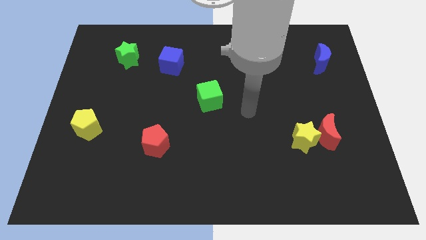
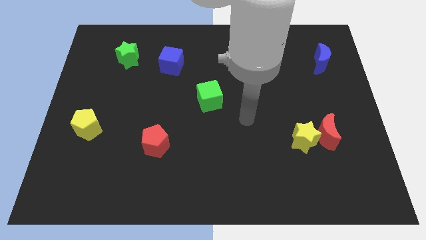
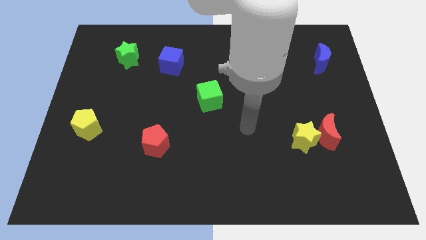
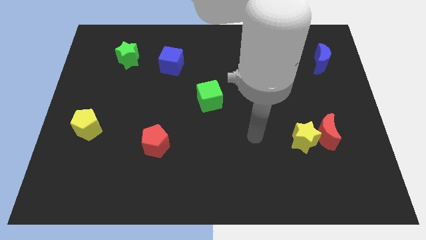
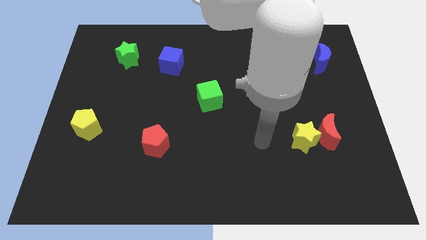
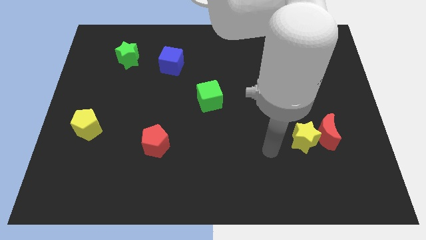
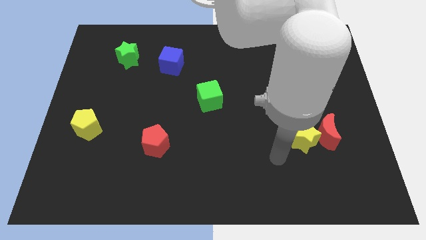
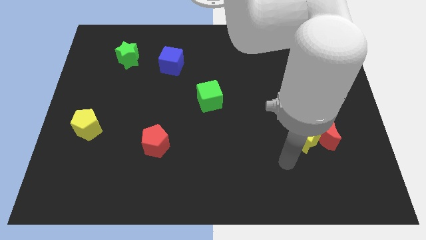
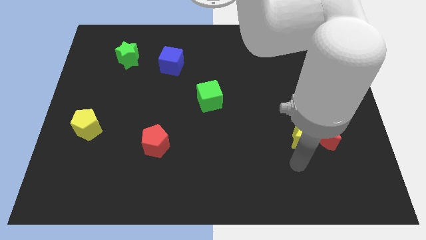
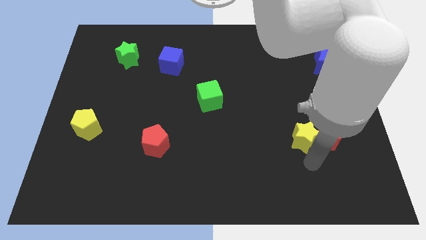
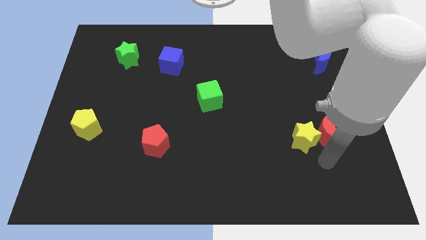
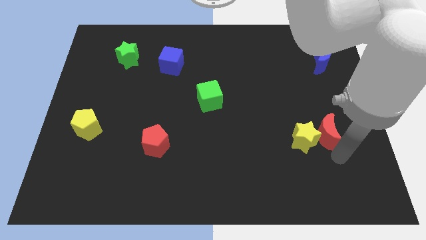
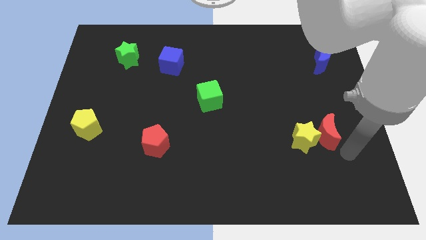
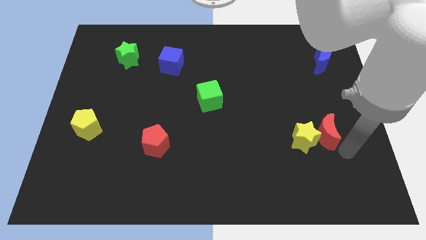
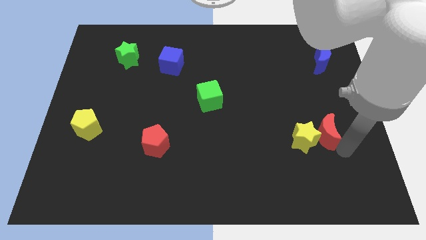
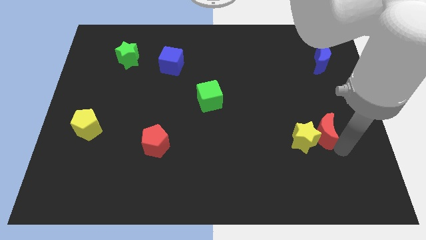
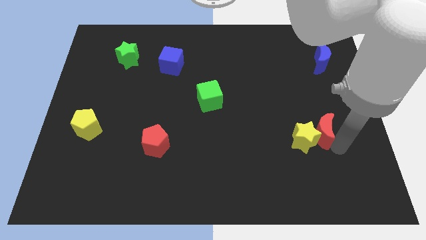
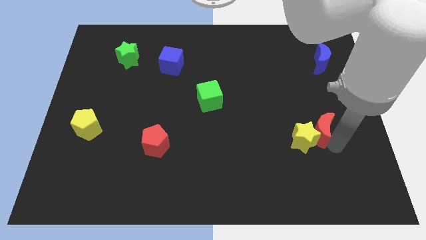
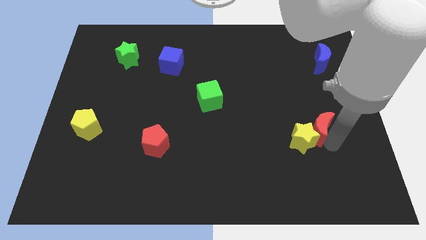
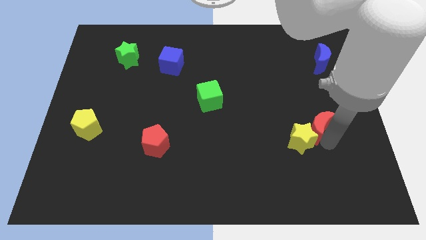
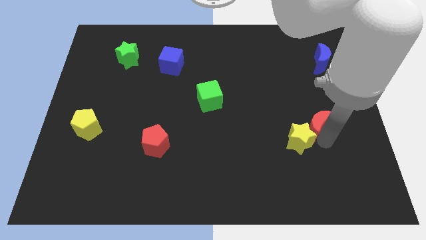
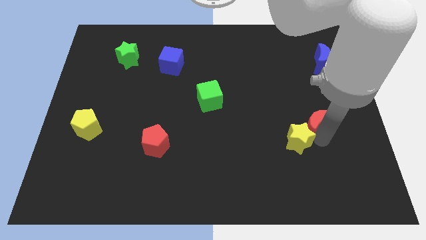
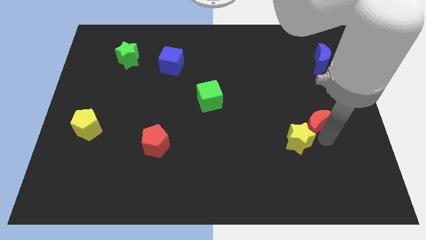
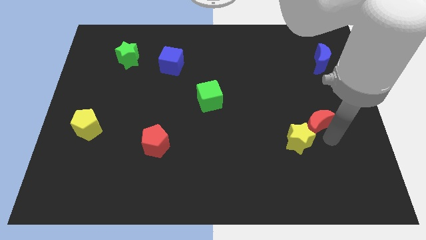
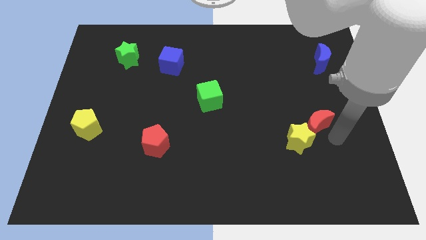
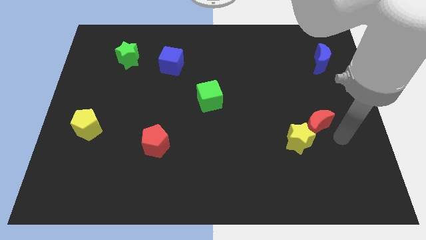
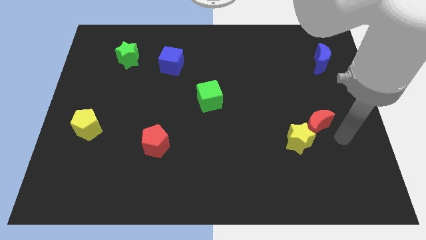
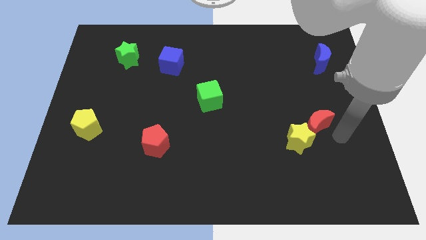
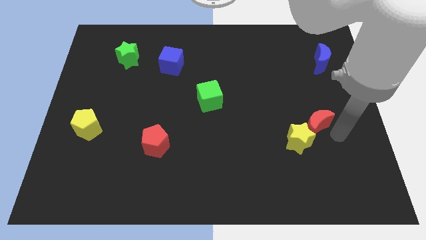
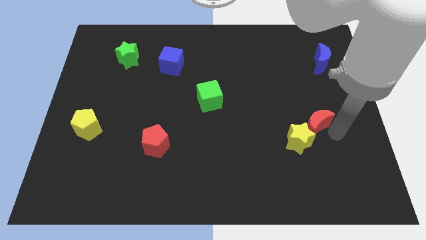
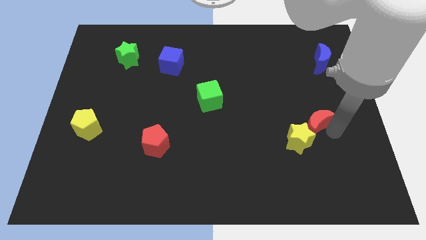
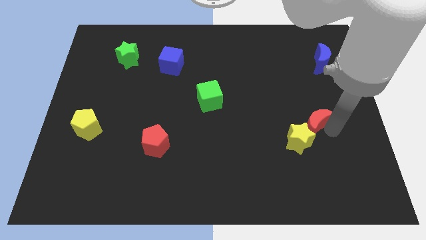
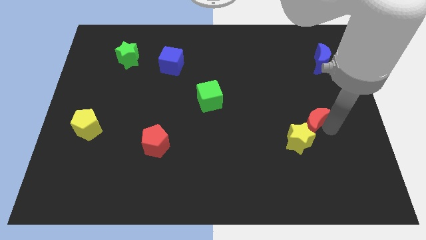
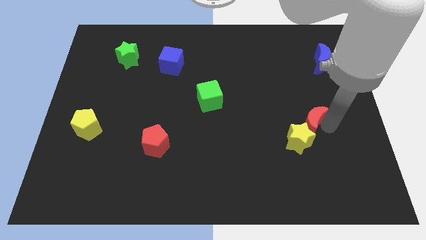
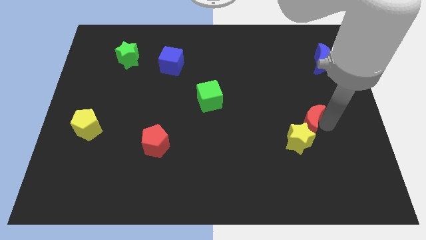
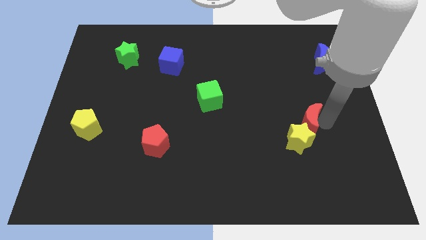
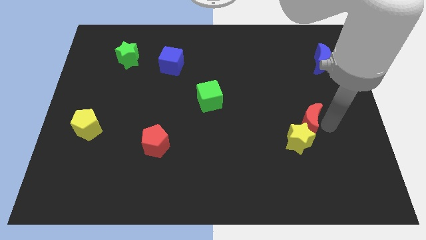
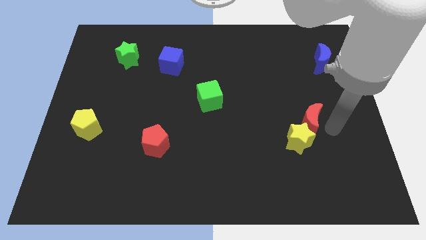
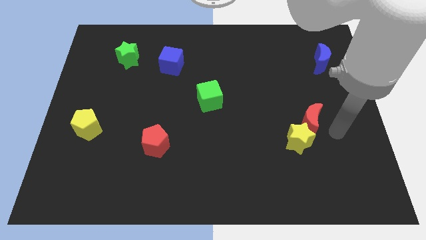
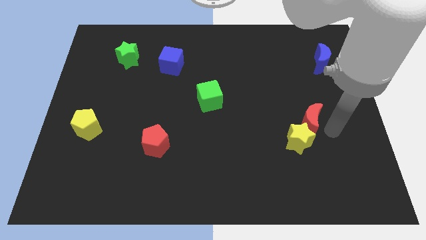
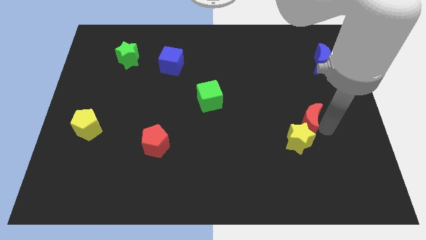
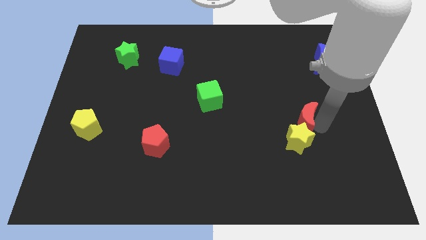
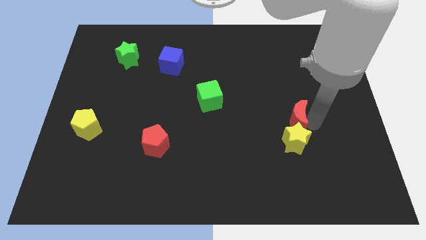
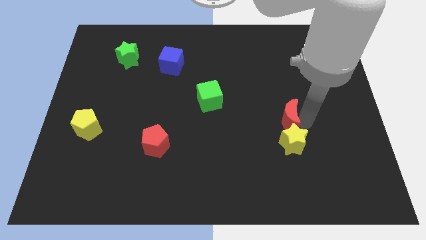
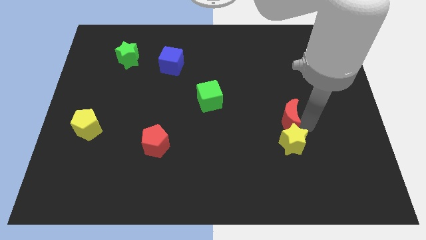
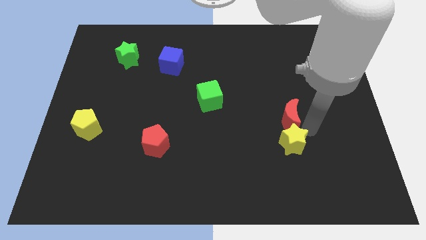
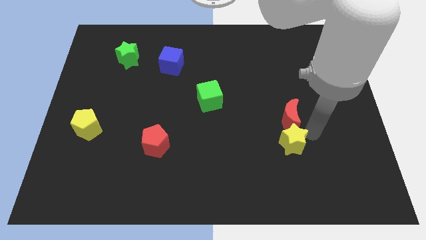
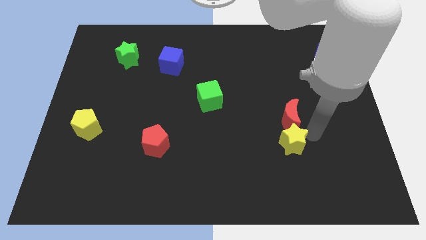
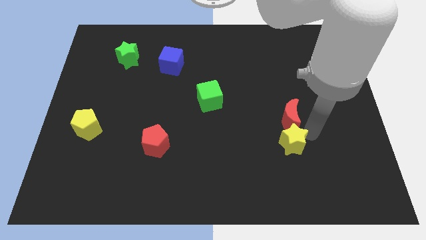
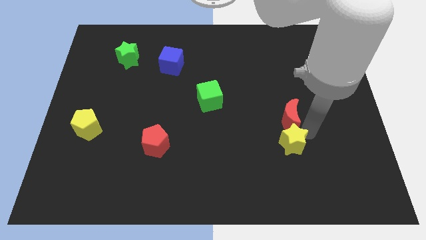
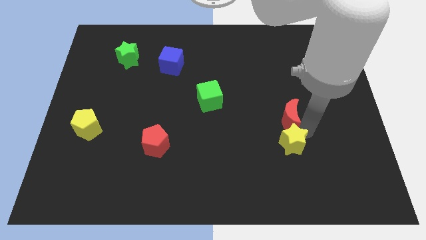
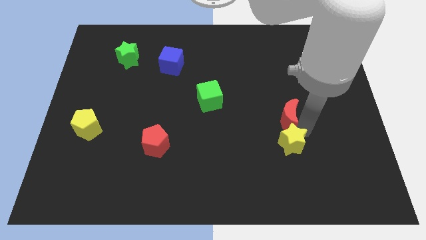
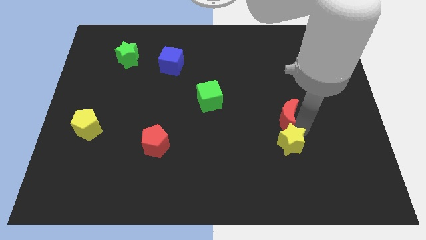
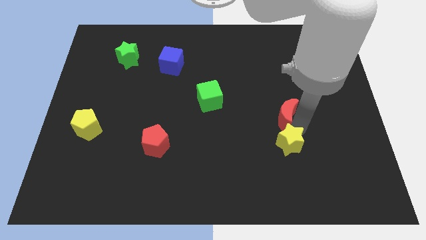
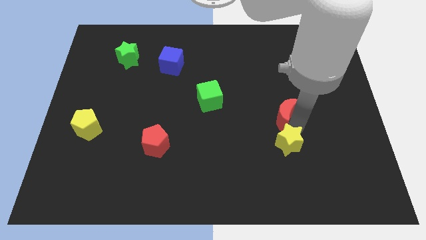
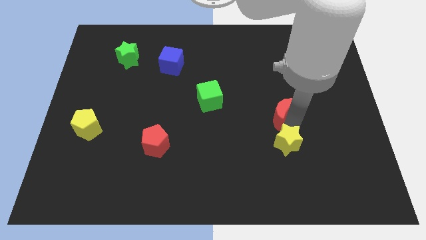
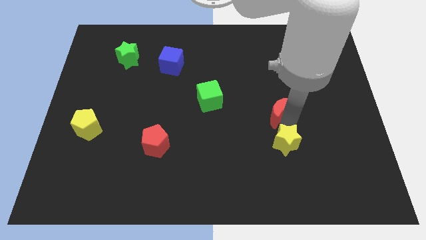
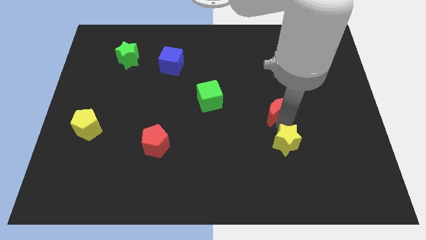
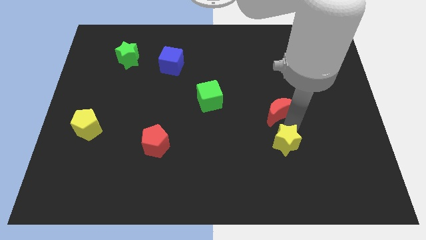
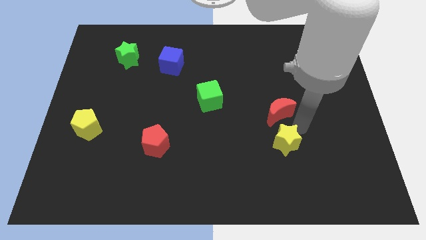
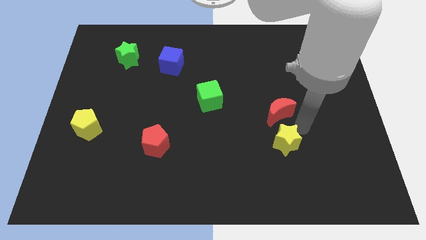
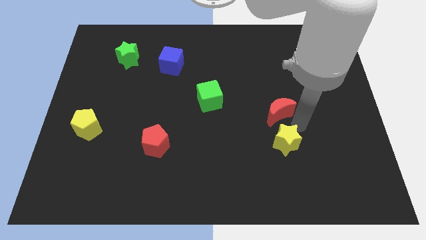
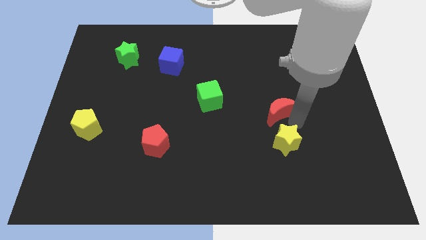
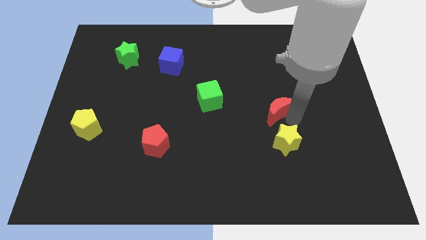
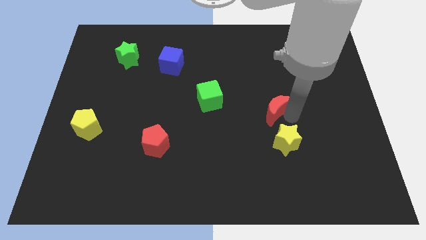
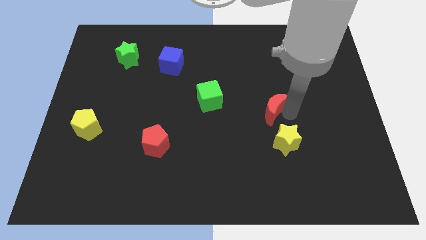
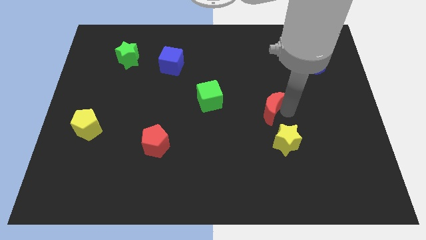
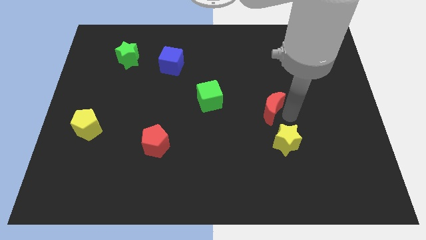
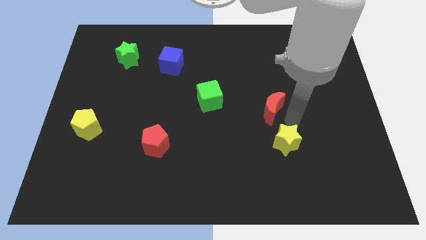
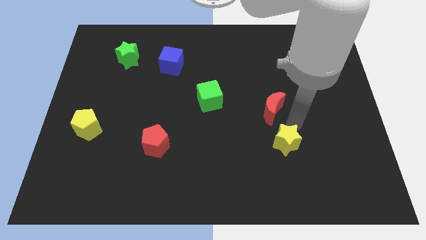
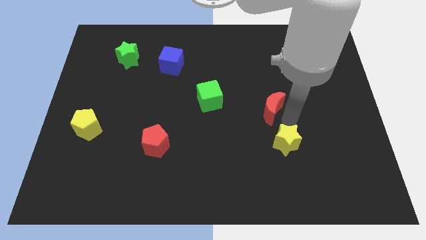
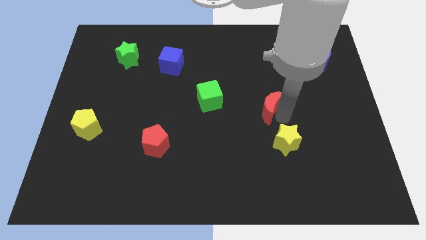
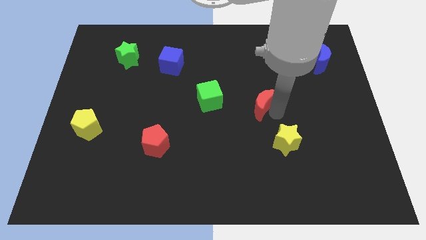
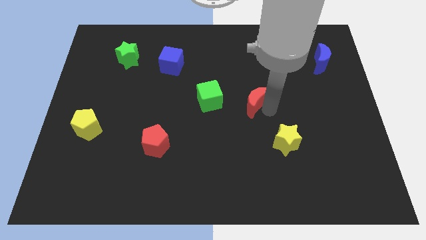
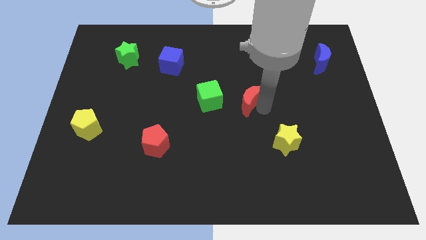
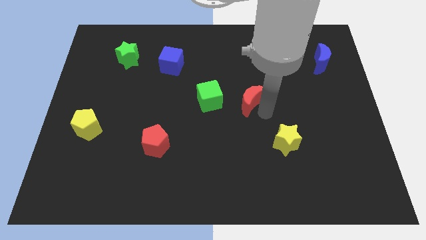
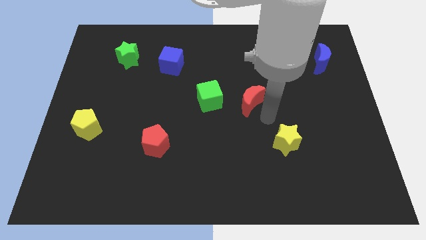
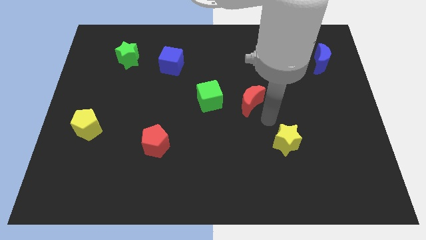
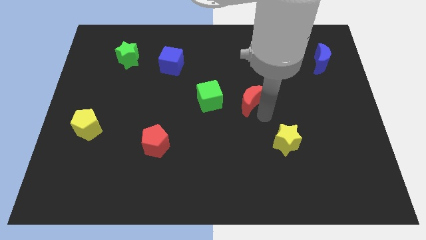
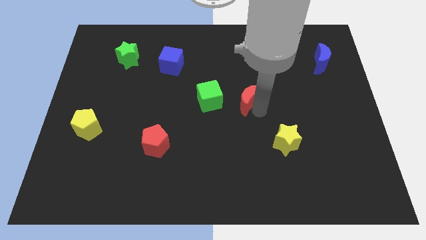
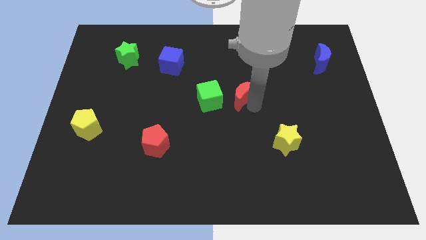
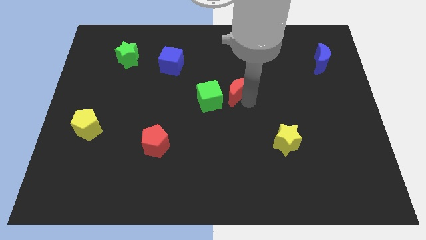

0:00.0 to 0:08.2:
slide the red moon to the top right side of the green cube
